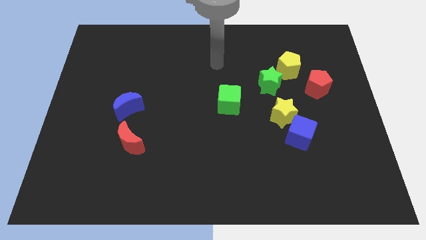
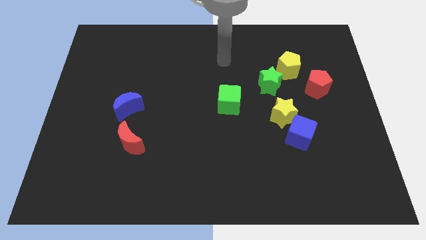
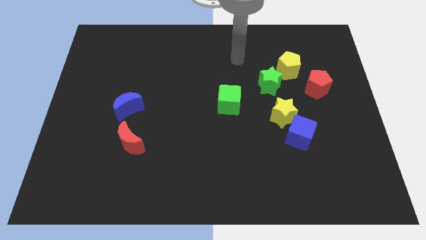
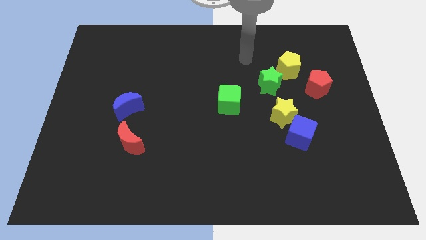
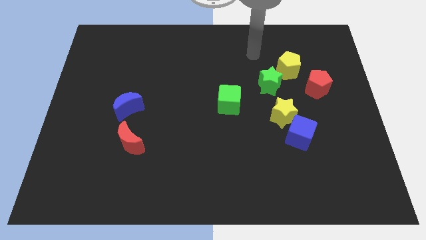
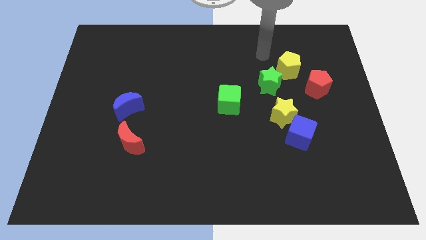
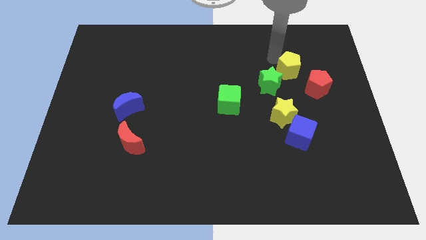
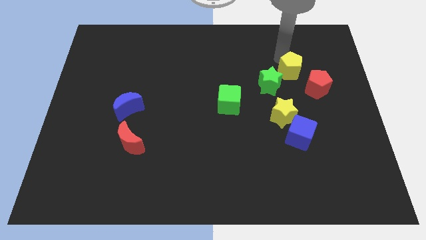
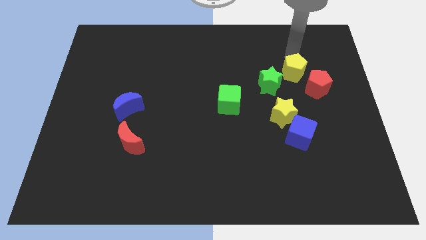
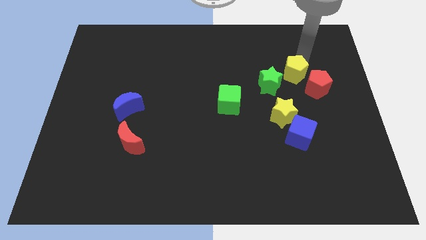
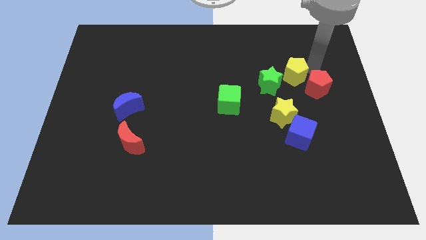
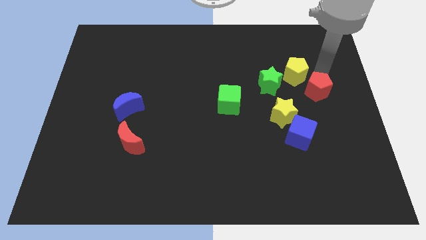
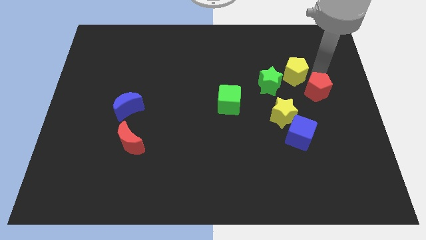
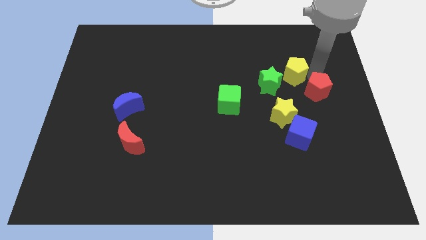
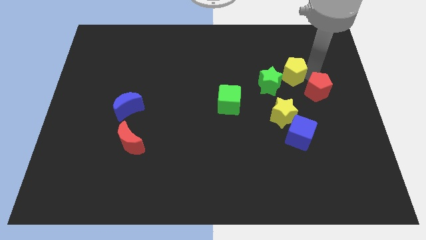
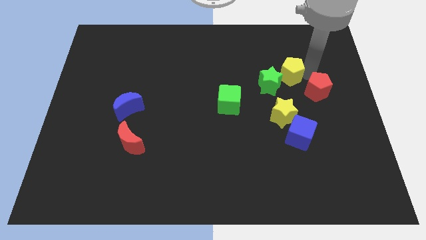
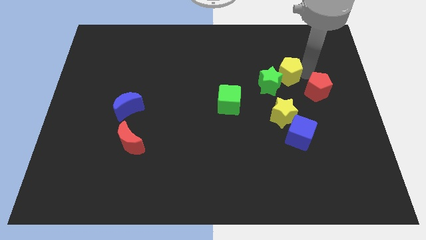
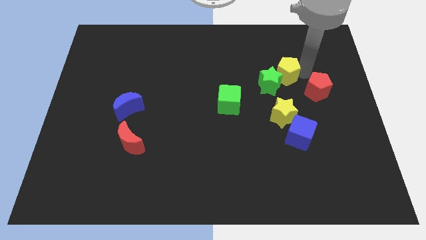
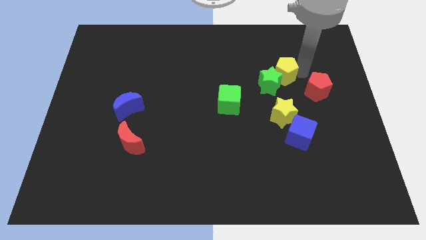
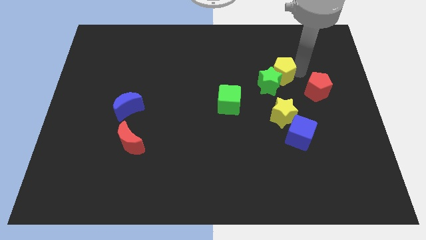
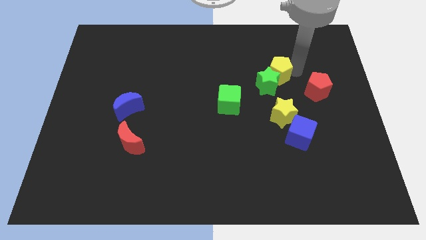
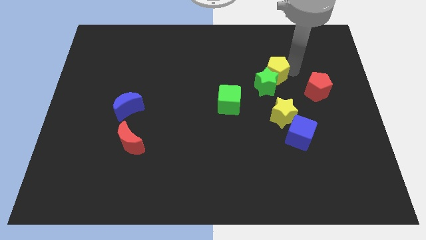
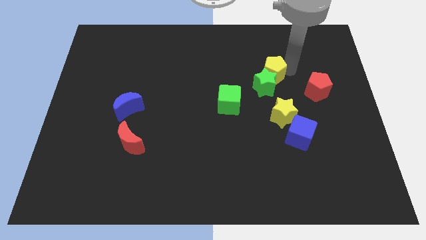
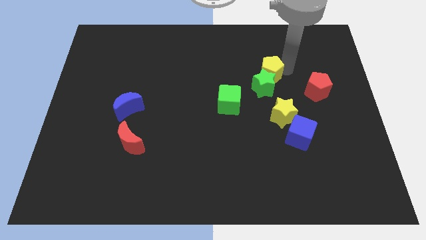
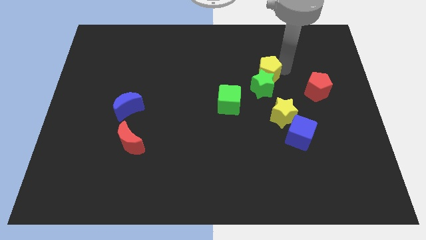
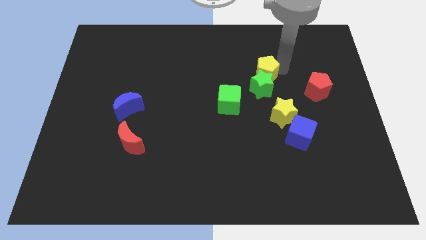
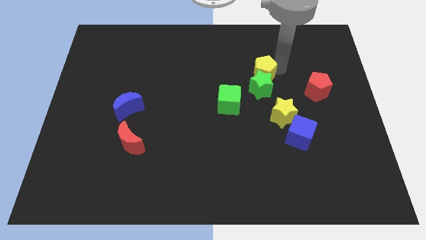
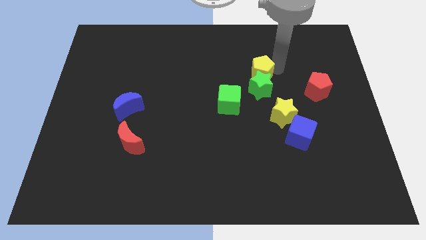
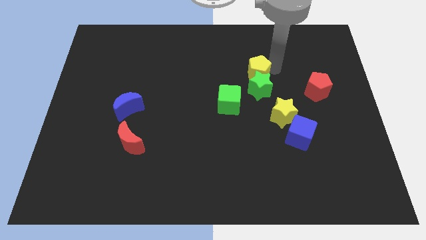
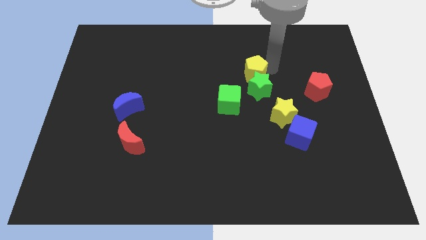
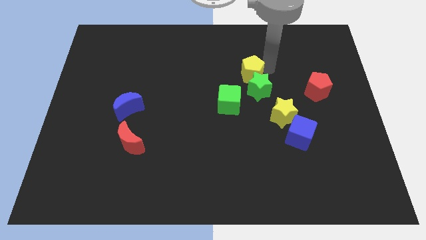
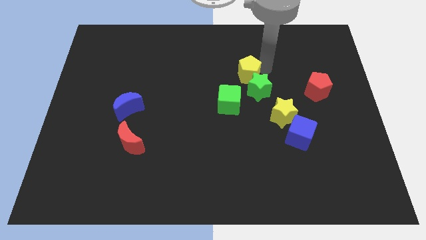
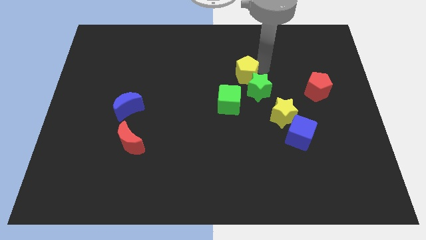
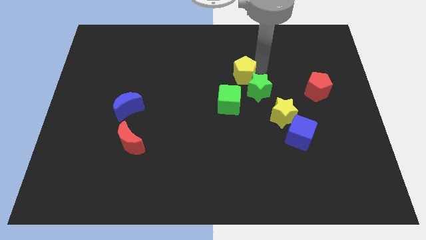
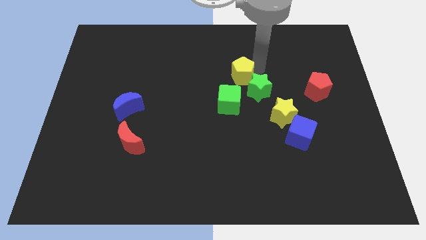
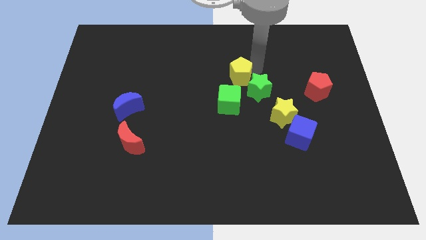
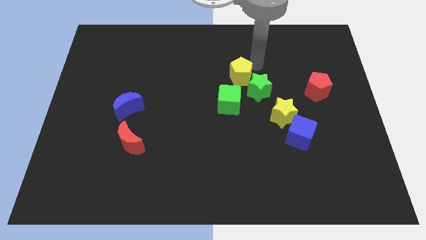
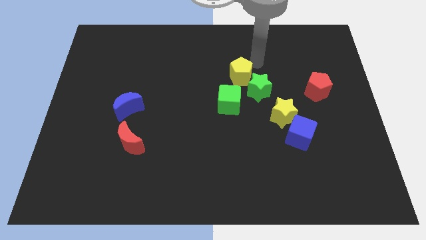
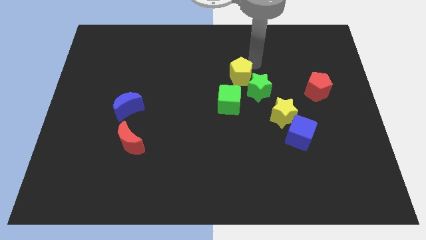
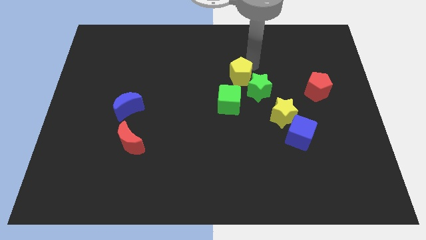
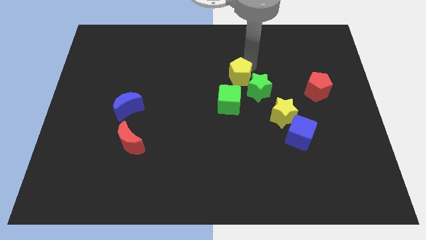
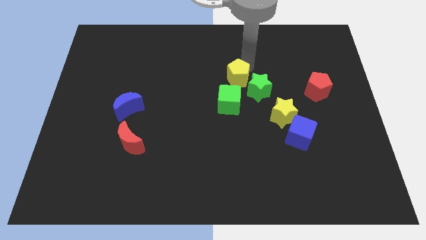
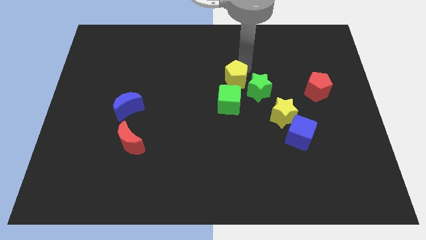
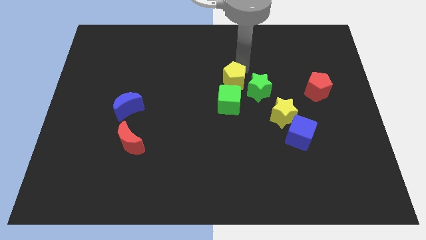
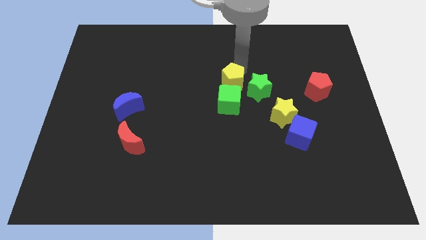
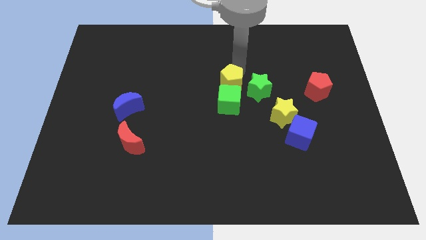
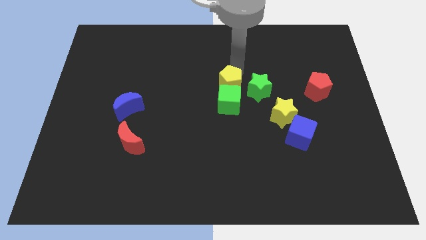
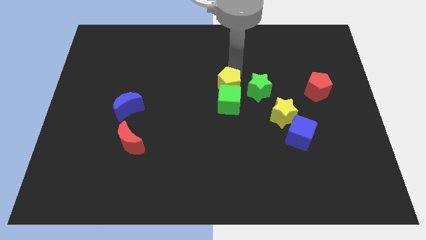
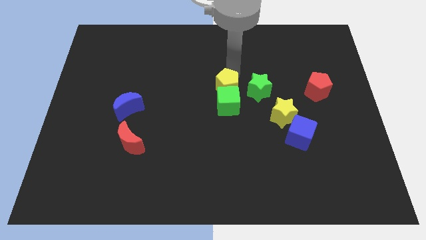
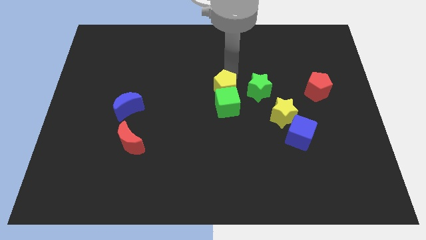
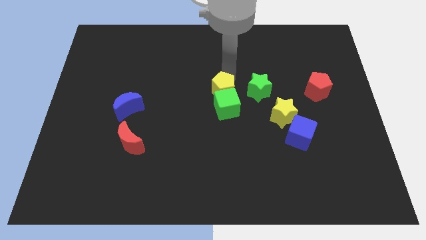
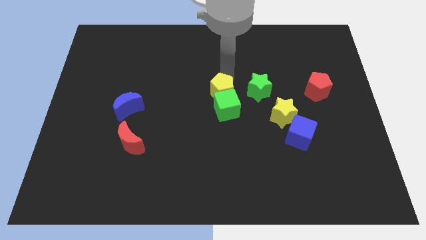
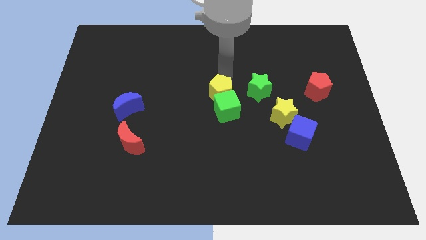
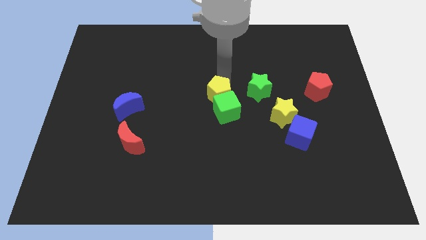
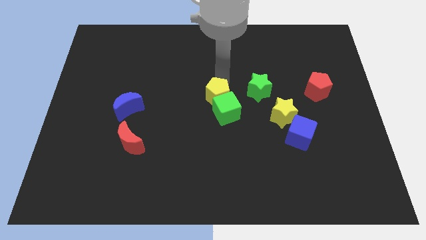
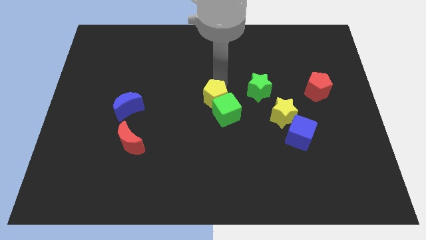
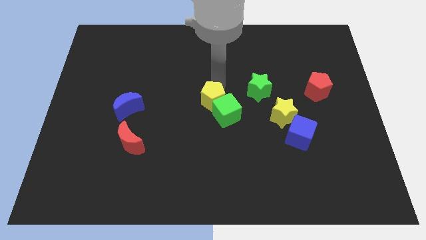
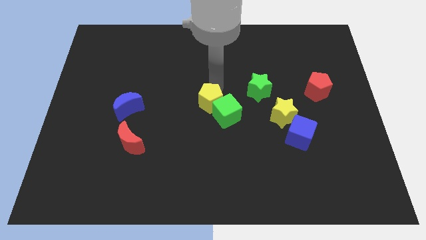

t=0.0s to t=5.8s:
slide the yellow pentagon diagonally downwards and left

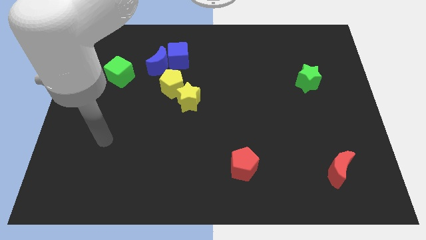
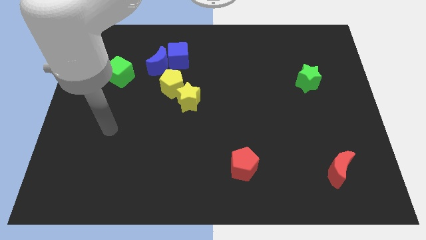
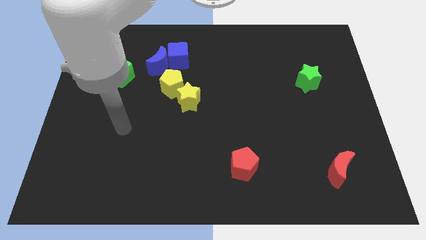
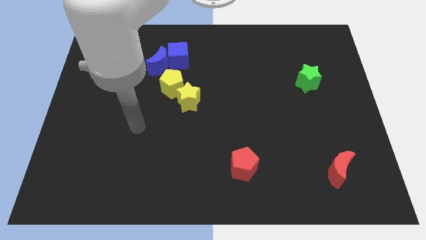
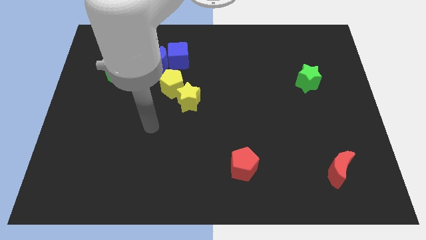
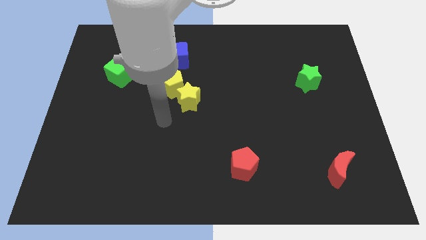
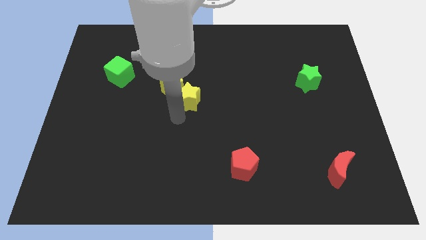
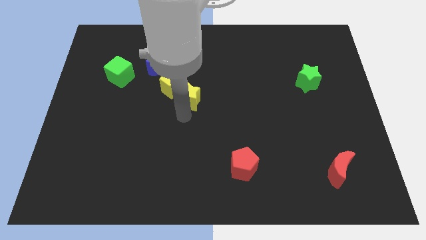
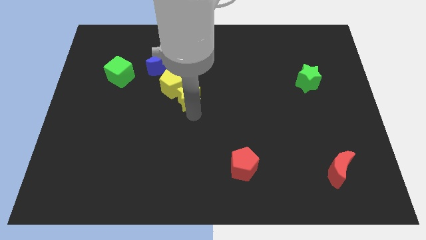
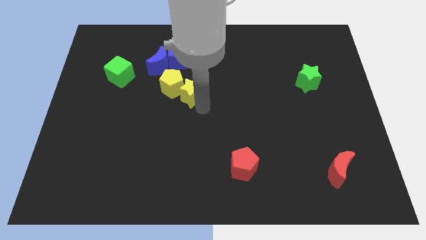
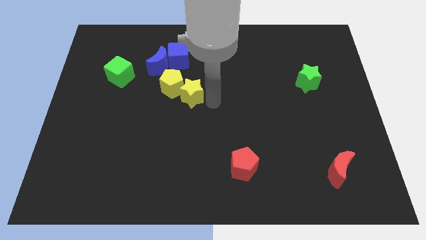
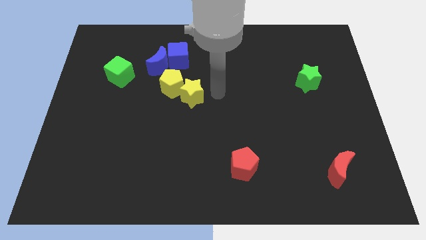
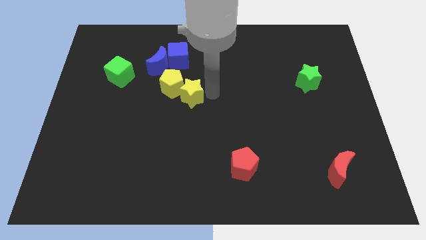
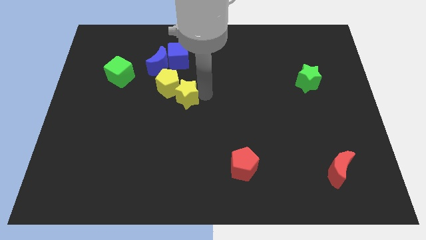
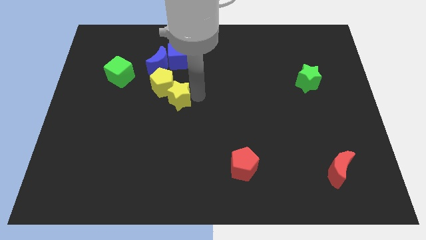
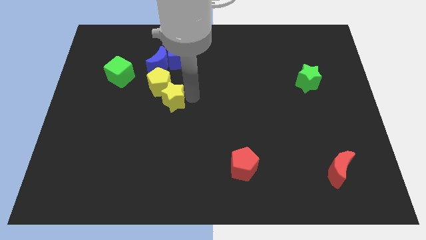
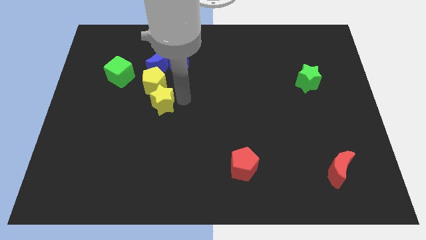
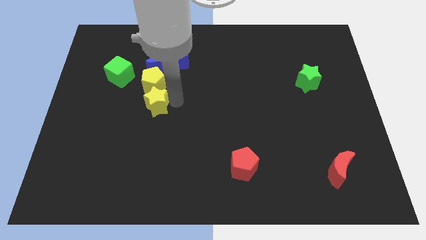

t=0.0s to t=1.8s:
move the yellow star left a little bit

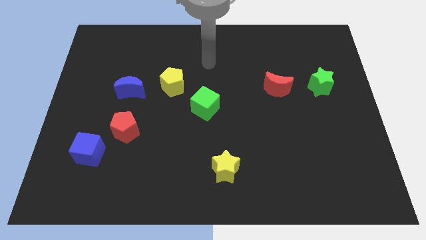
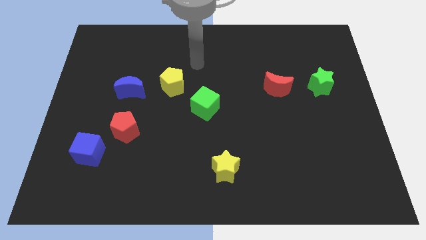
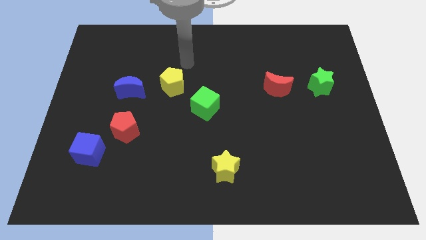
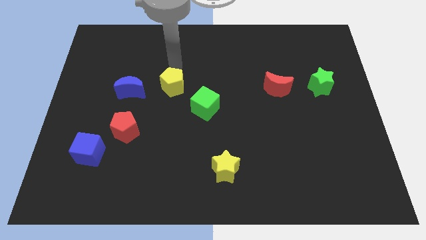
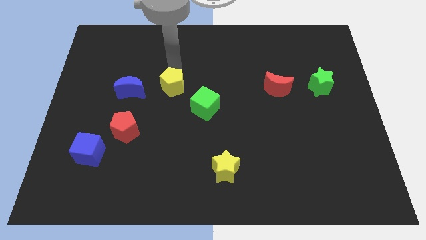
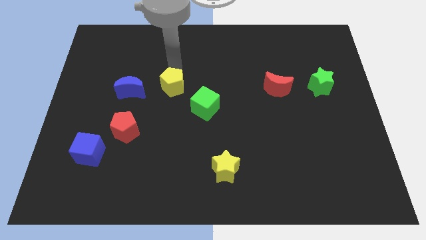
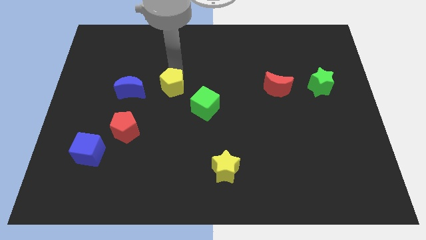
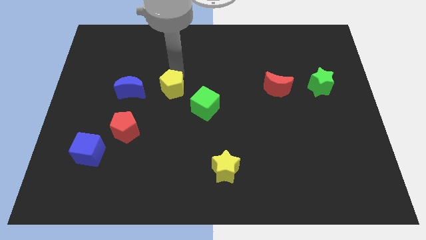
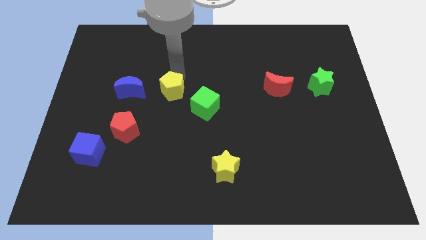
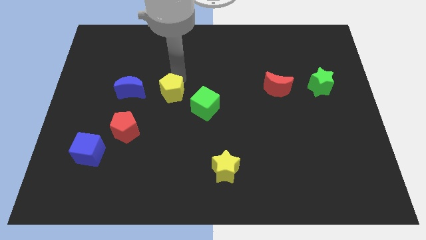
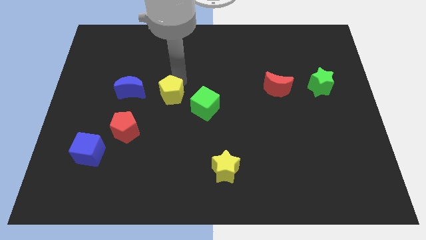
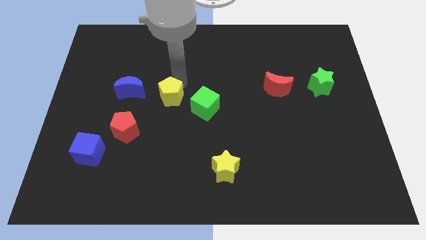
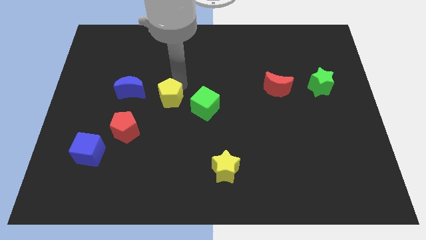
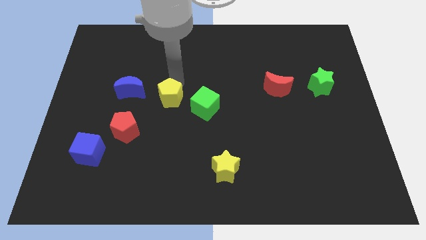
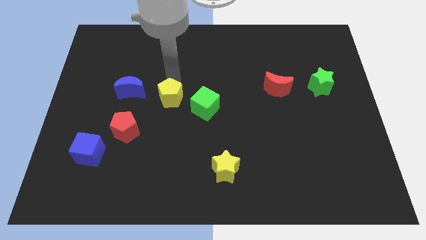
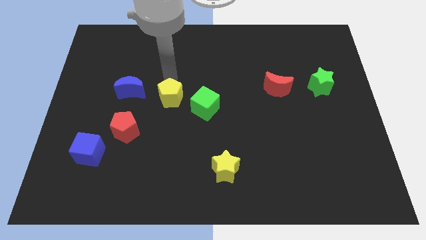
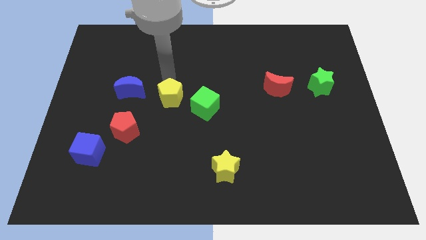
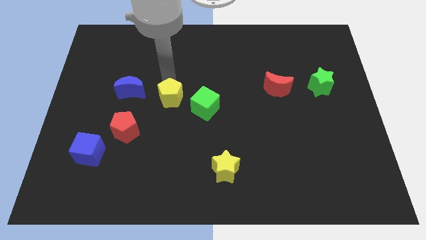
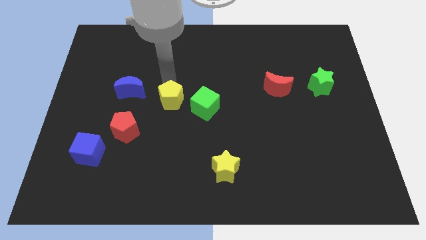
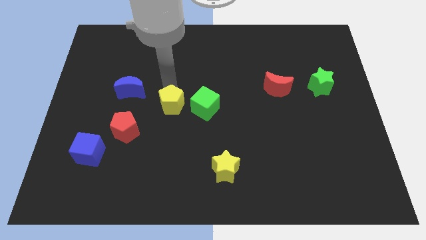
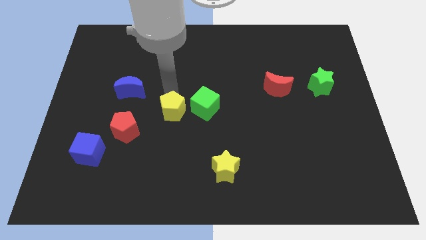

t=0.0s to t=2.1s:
slightly slide the yellow pentagon downwards
